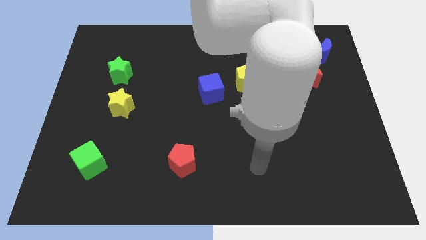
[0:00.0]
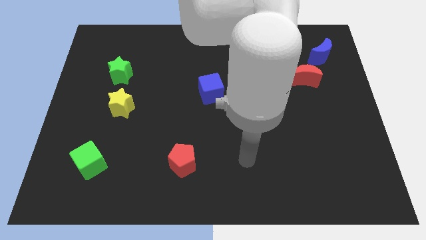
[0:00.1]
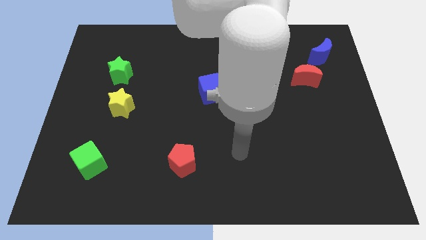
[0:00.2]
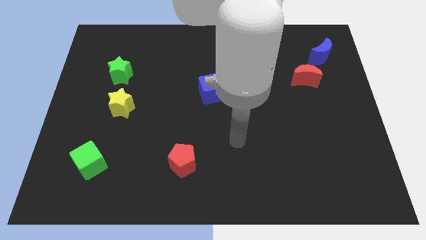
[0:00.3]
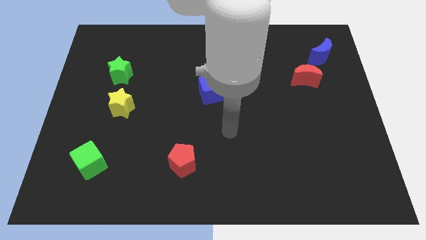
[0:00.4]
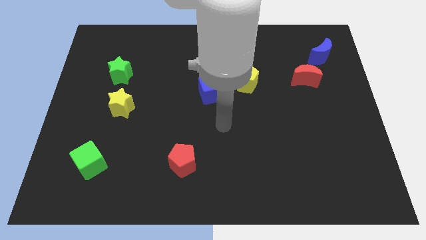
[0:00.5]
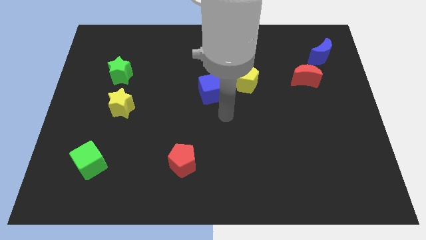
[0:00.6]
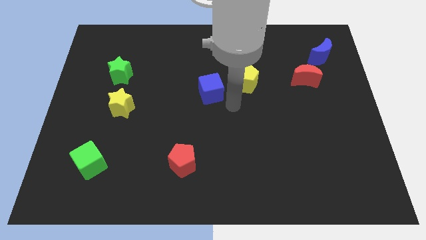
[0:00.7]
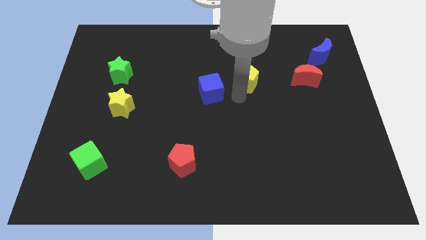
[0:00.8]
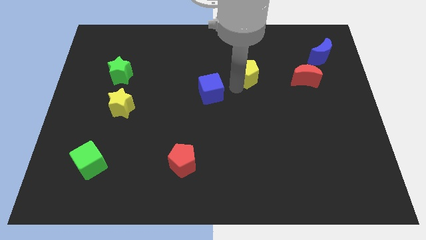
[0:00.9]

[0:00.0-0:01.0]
pull the blue cube apart from the yellow pentagon

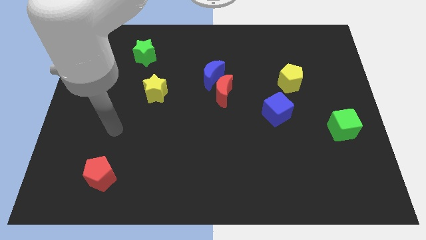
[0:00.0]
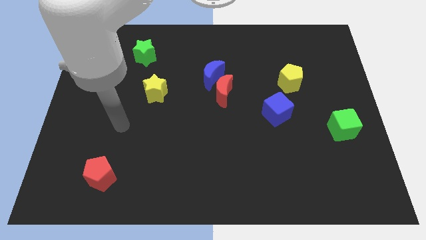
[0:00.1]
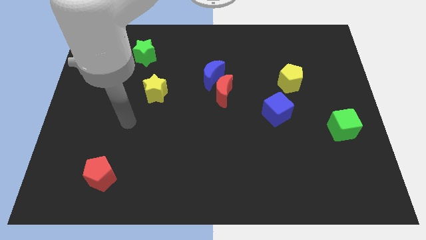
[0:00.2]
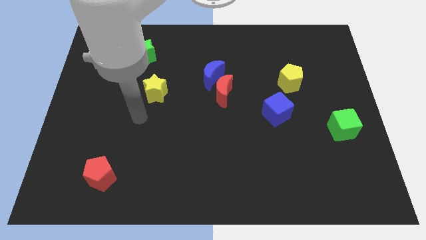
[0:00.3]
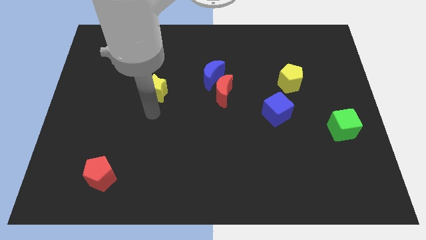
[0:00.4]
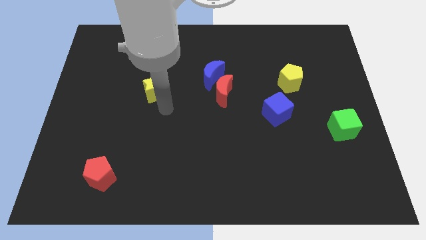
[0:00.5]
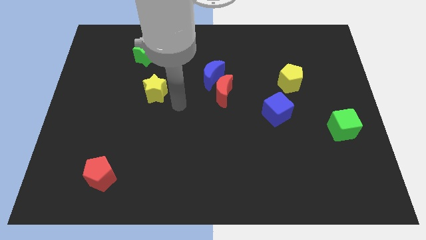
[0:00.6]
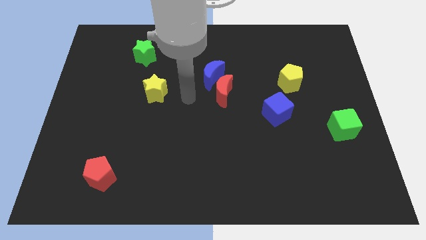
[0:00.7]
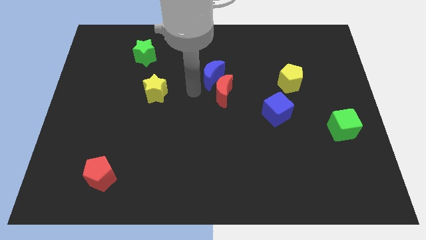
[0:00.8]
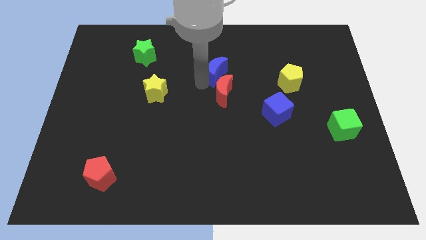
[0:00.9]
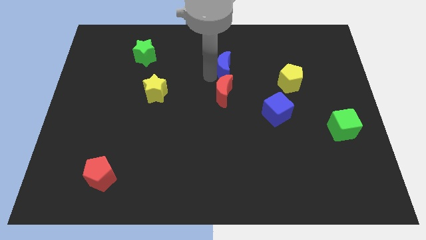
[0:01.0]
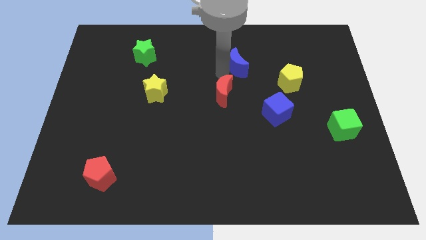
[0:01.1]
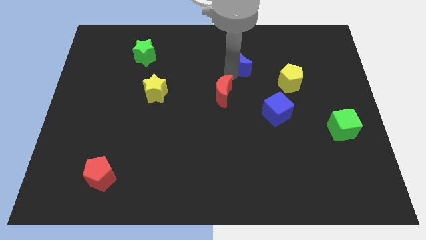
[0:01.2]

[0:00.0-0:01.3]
move the red moon away from the blue moon

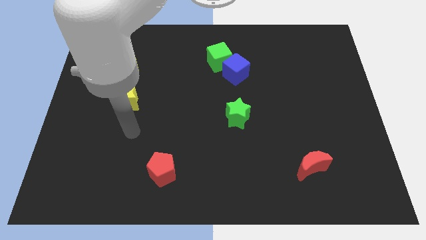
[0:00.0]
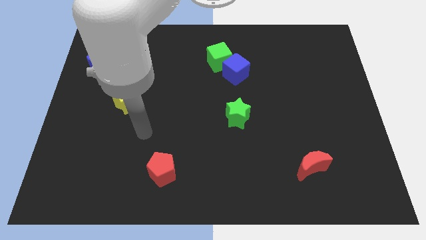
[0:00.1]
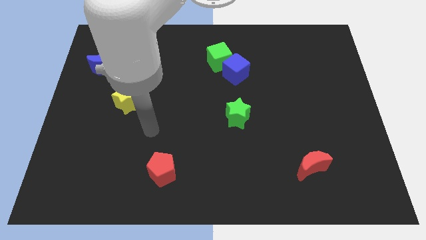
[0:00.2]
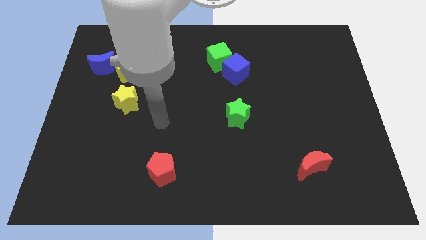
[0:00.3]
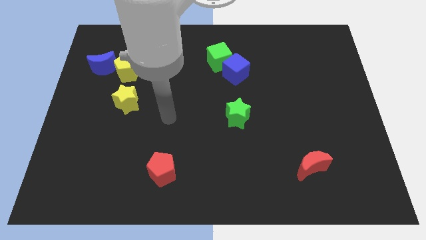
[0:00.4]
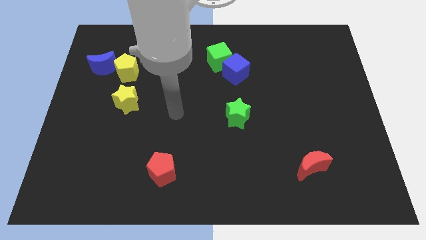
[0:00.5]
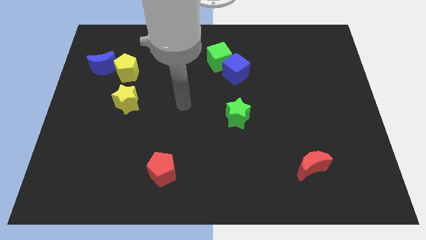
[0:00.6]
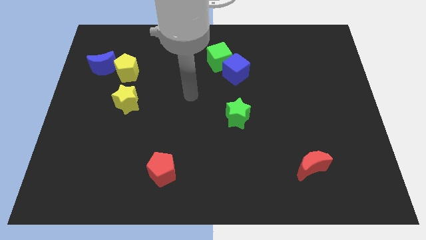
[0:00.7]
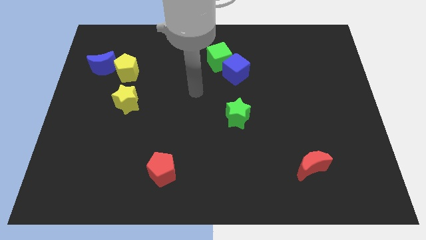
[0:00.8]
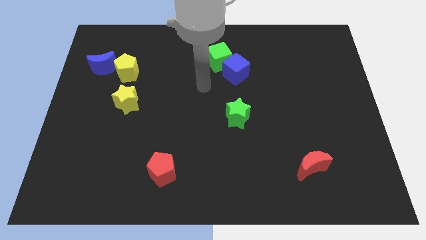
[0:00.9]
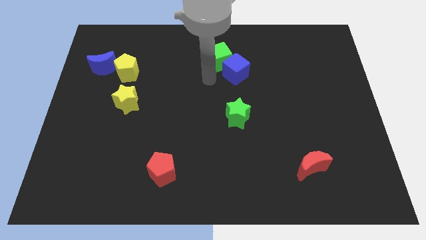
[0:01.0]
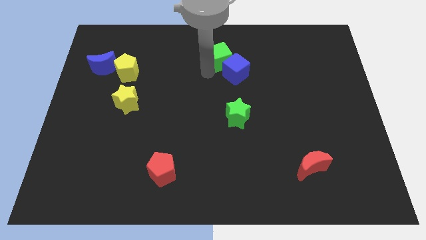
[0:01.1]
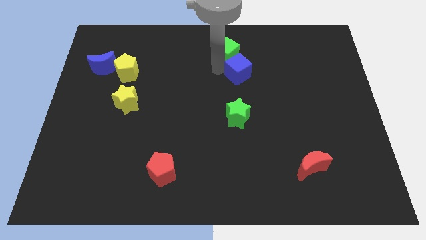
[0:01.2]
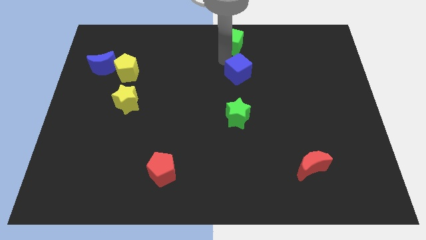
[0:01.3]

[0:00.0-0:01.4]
move the blue cube away from the green cube

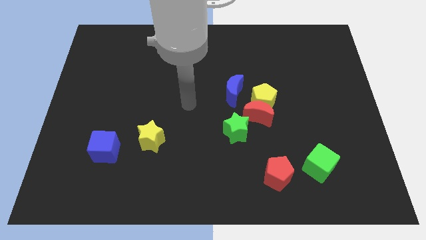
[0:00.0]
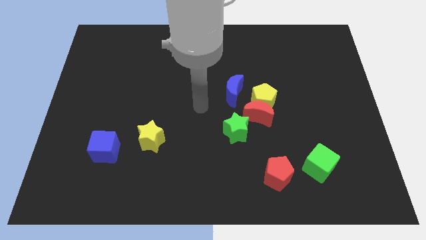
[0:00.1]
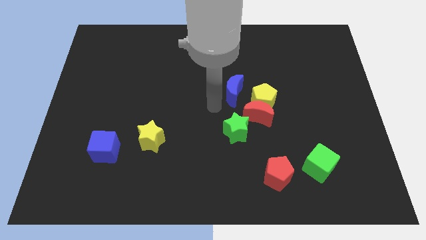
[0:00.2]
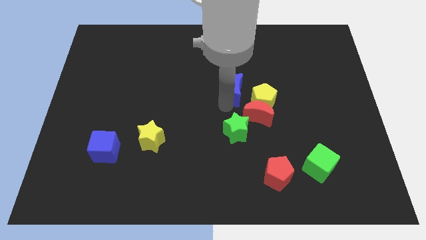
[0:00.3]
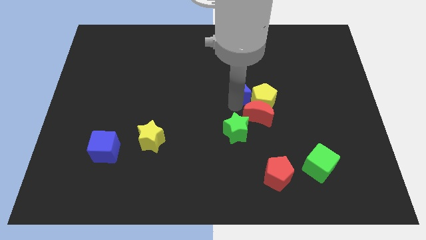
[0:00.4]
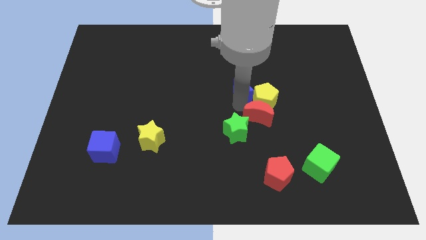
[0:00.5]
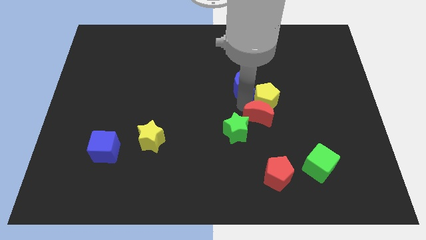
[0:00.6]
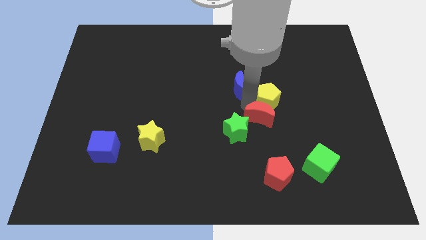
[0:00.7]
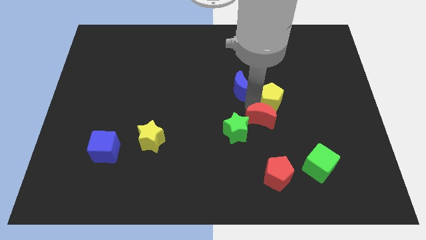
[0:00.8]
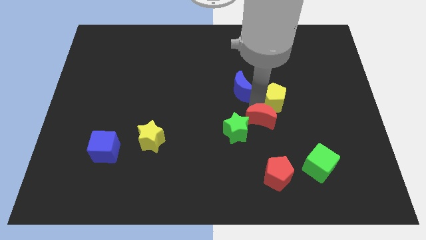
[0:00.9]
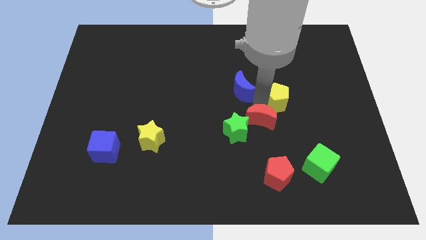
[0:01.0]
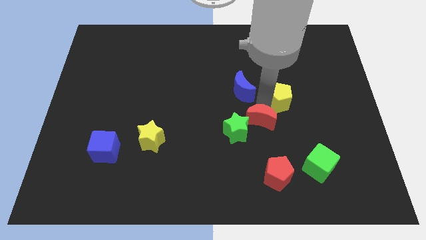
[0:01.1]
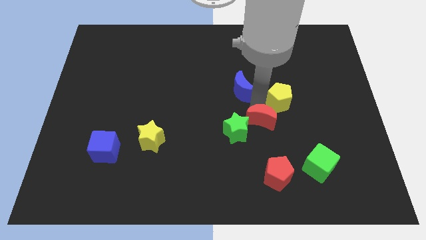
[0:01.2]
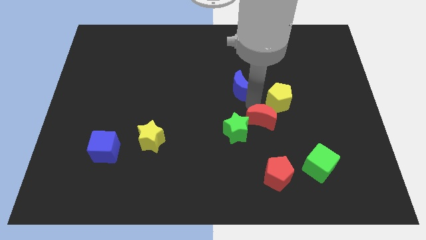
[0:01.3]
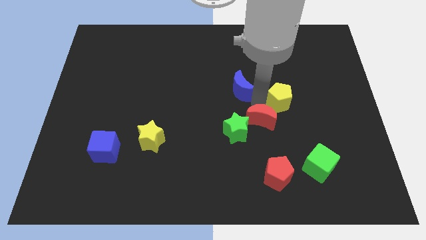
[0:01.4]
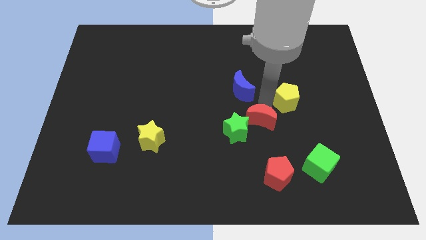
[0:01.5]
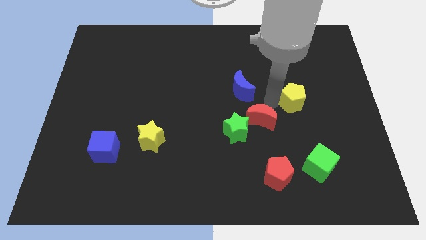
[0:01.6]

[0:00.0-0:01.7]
separate the yellow pentagon from the red moon and blue moon

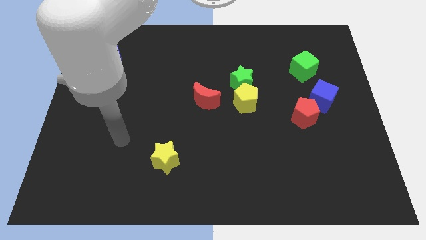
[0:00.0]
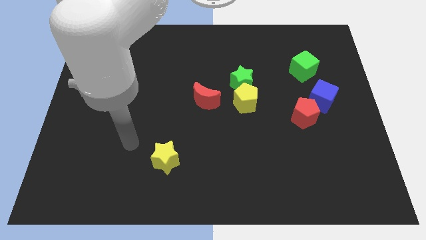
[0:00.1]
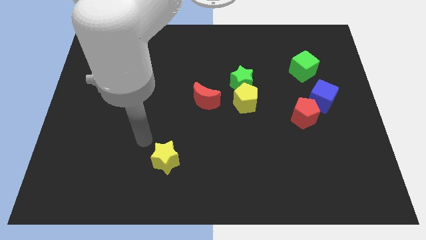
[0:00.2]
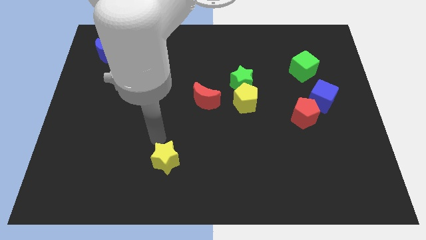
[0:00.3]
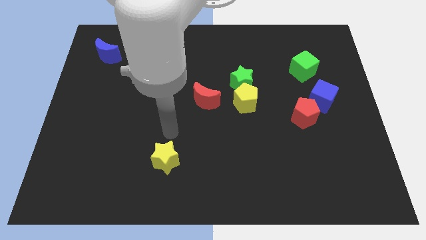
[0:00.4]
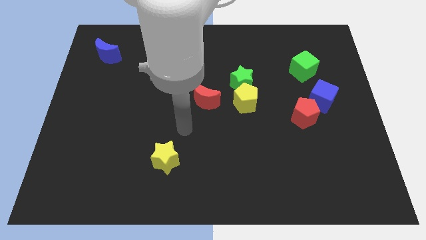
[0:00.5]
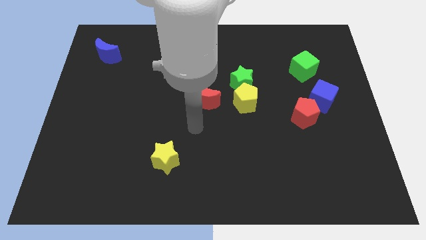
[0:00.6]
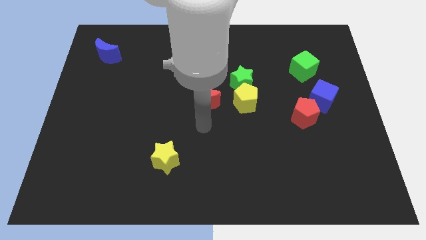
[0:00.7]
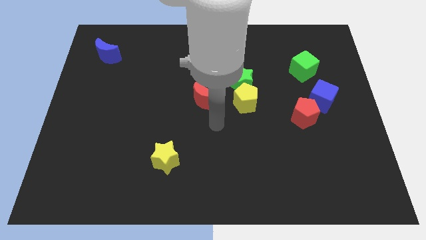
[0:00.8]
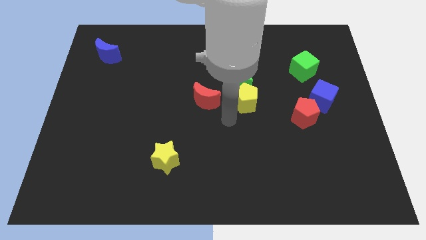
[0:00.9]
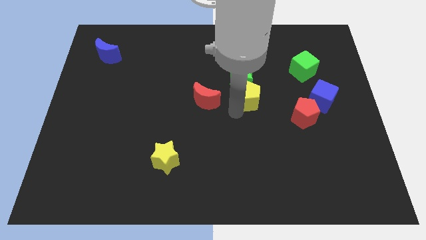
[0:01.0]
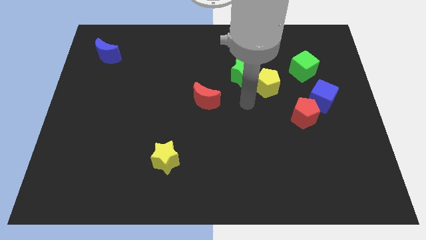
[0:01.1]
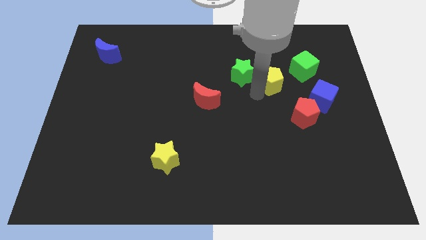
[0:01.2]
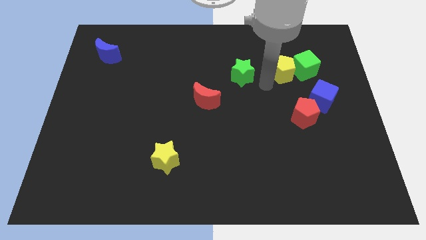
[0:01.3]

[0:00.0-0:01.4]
pull the green star apart from the yellow pentagon

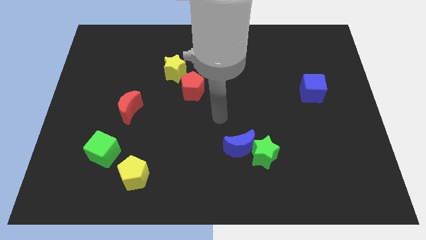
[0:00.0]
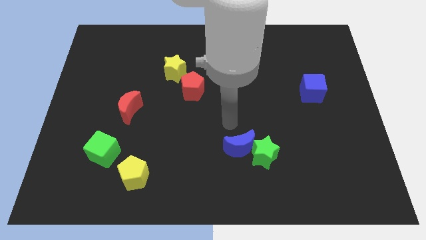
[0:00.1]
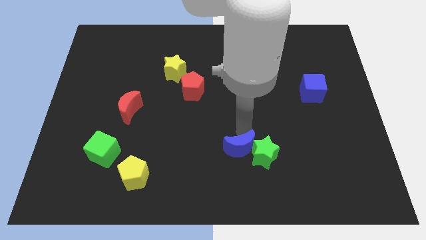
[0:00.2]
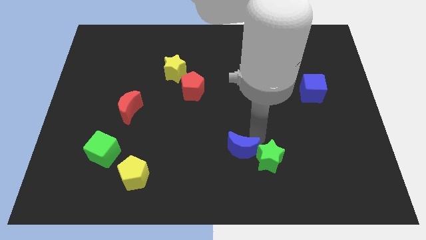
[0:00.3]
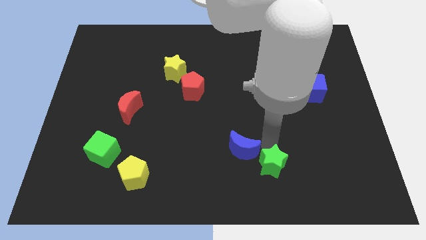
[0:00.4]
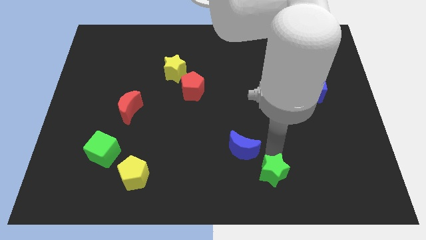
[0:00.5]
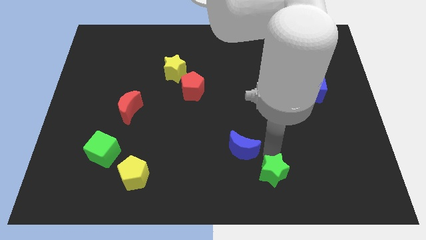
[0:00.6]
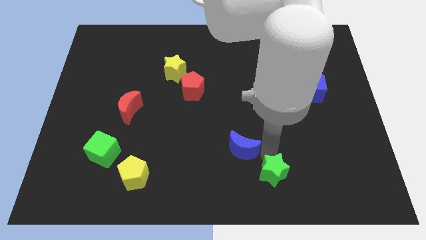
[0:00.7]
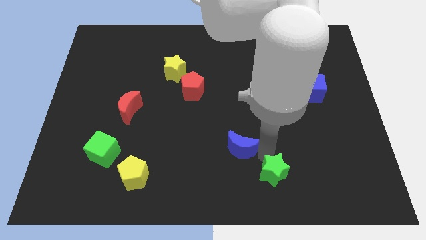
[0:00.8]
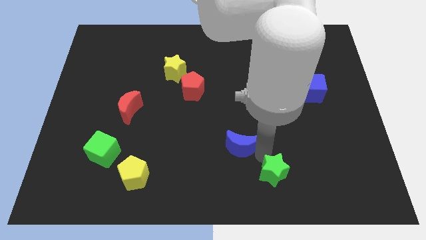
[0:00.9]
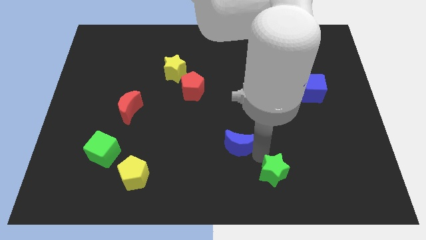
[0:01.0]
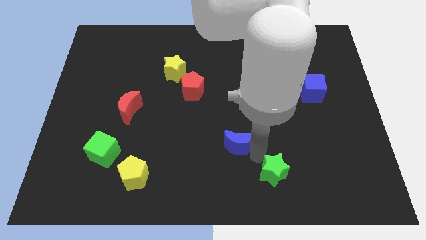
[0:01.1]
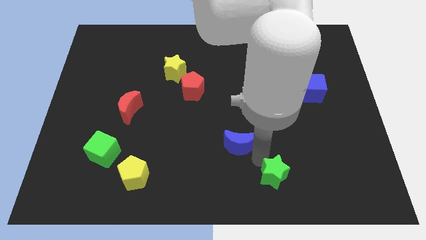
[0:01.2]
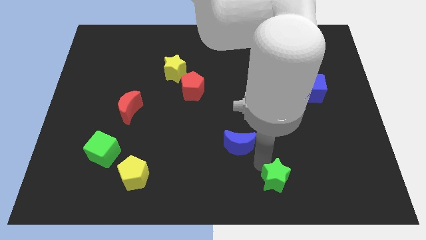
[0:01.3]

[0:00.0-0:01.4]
move the blue moon away from the green star

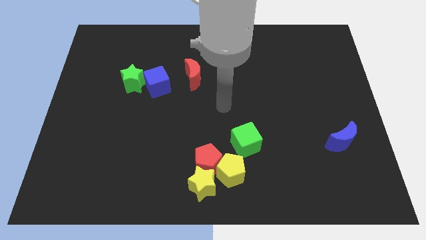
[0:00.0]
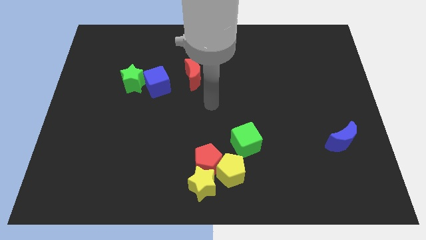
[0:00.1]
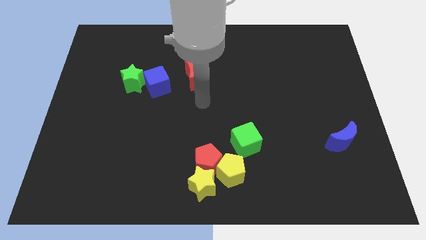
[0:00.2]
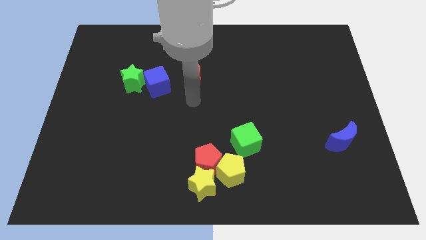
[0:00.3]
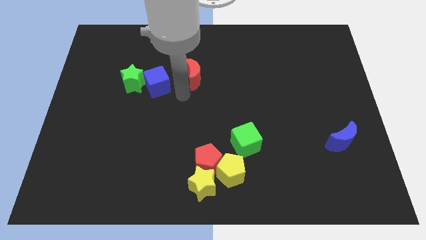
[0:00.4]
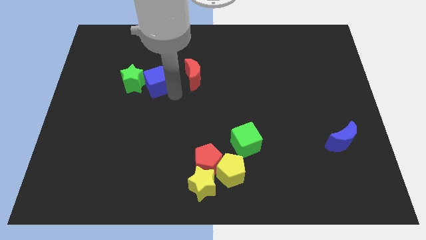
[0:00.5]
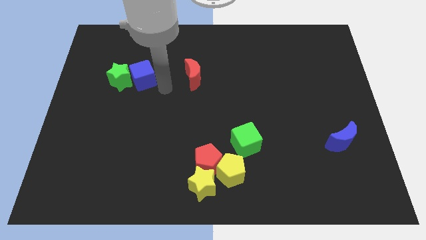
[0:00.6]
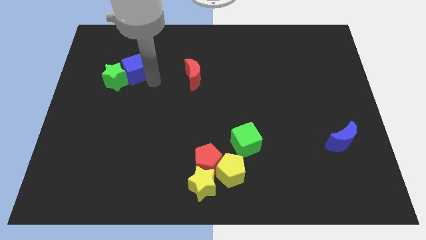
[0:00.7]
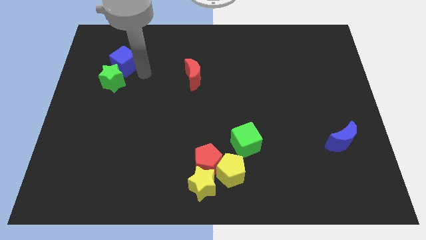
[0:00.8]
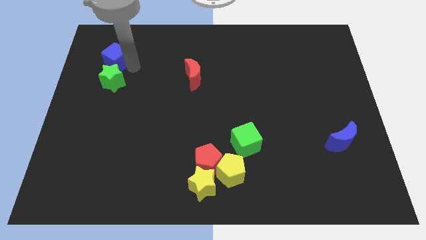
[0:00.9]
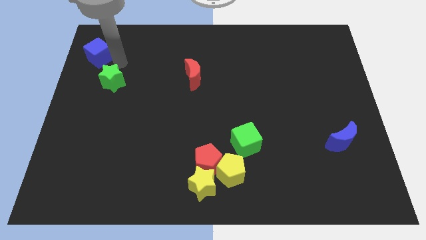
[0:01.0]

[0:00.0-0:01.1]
pull the green star apart from the blue cube
